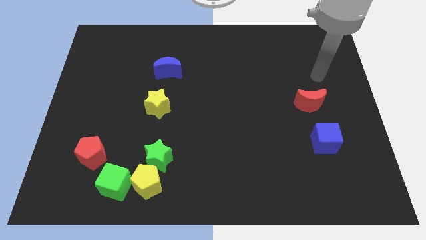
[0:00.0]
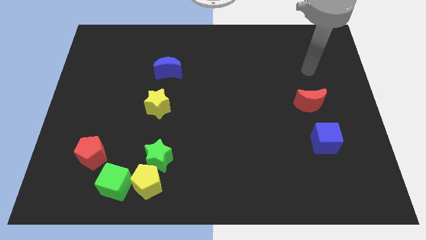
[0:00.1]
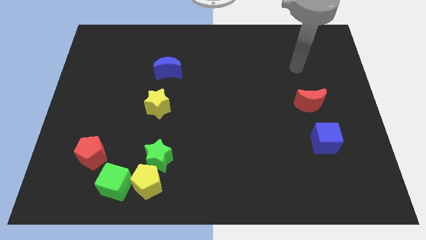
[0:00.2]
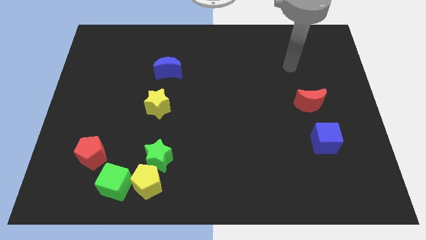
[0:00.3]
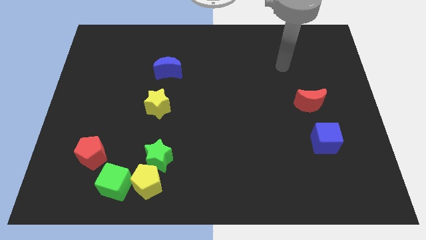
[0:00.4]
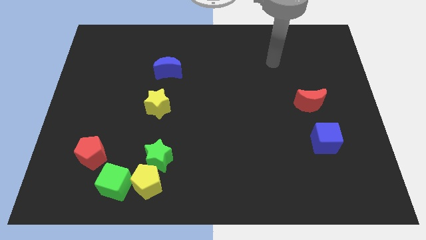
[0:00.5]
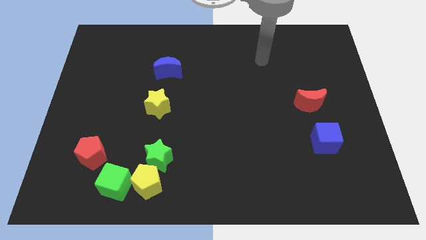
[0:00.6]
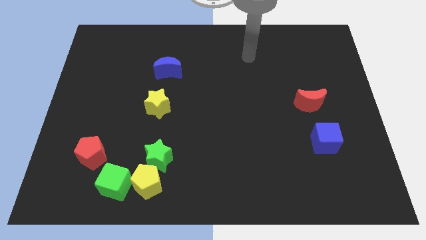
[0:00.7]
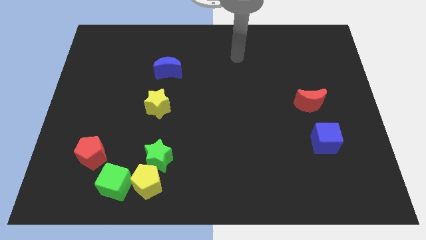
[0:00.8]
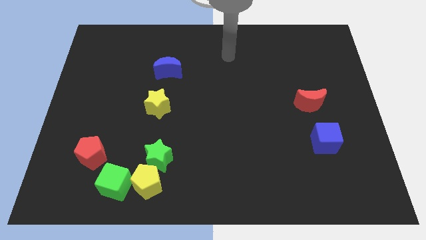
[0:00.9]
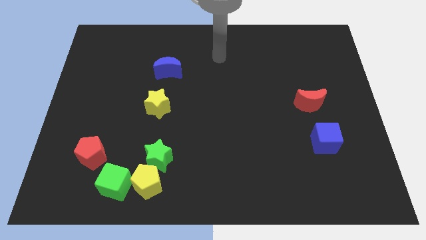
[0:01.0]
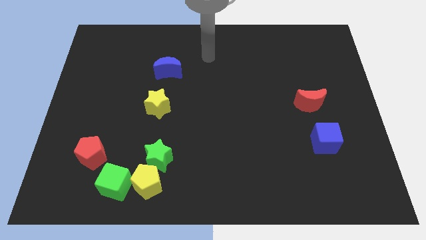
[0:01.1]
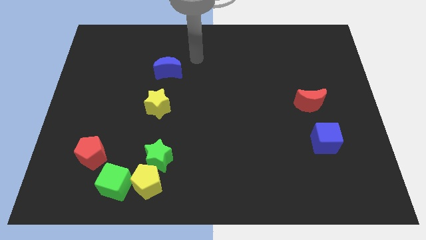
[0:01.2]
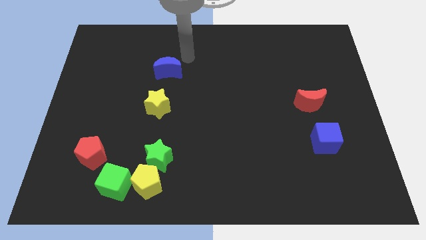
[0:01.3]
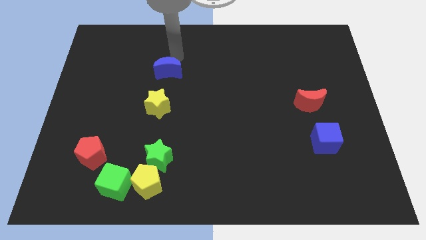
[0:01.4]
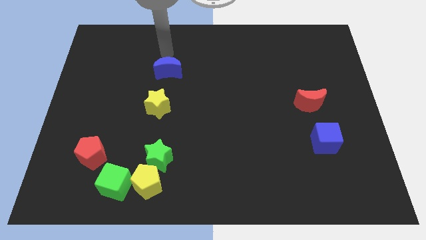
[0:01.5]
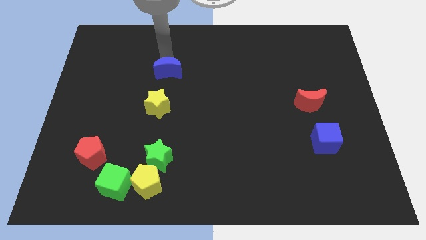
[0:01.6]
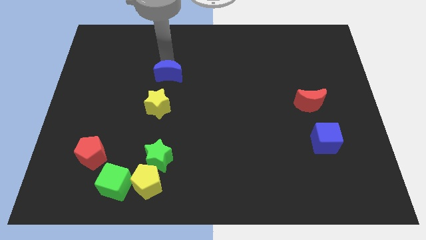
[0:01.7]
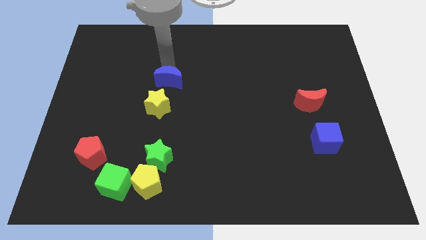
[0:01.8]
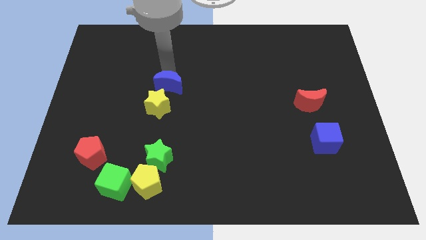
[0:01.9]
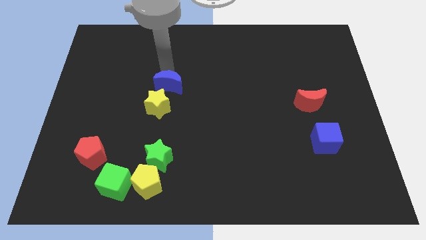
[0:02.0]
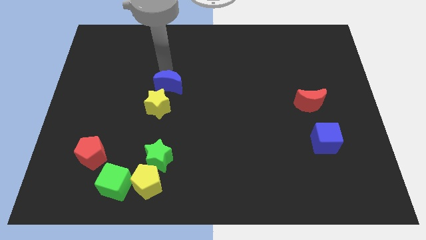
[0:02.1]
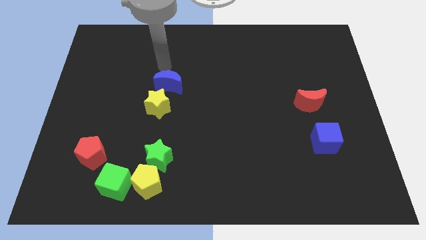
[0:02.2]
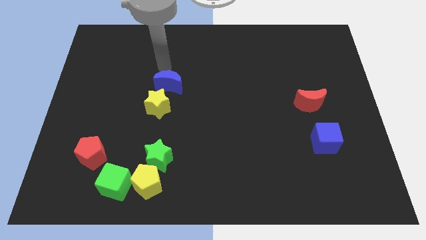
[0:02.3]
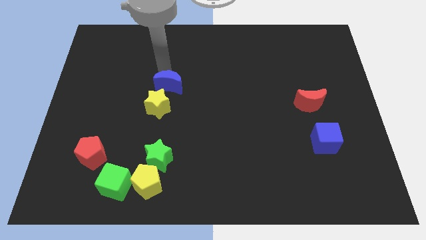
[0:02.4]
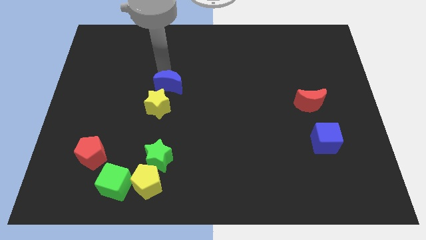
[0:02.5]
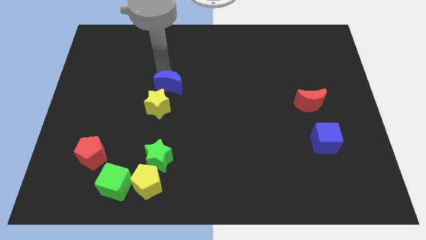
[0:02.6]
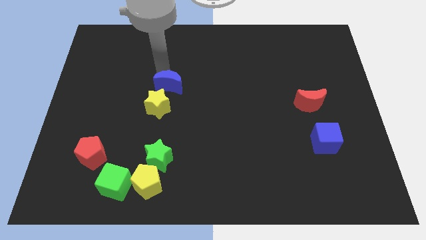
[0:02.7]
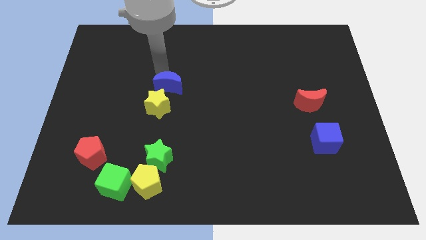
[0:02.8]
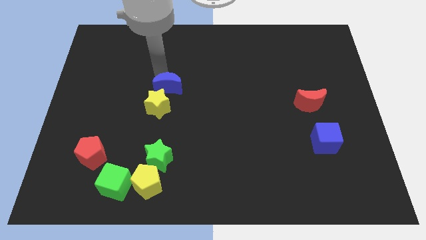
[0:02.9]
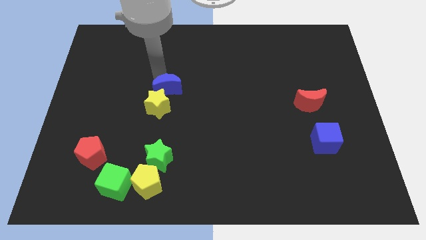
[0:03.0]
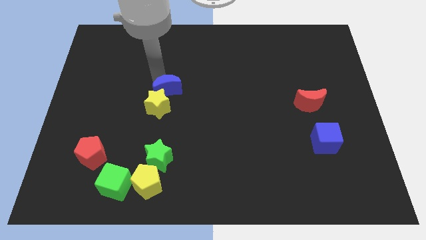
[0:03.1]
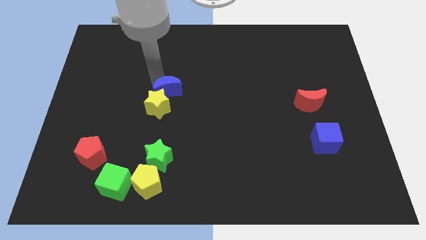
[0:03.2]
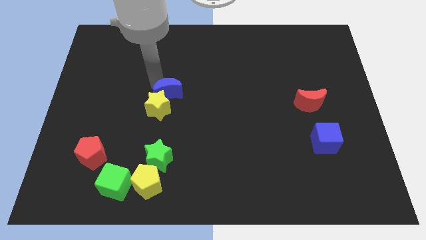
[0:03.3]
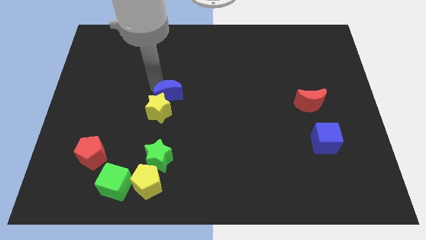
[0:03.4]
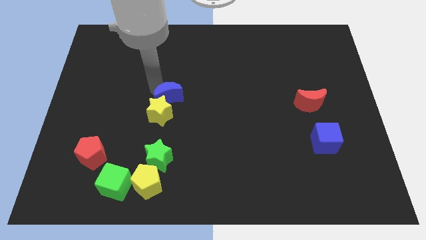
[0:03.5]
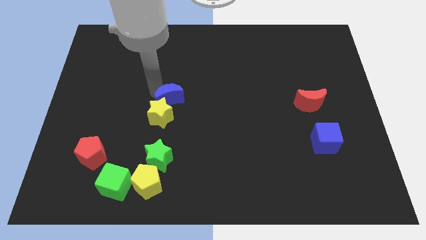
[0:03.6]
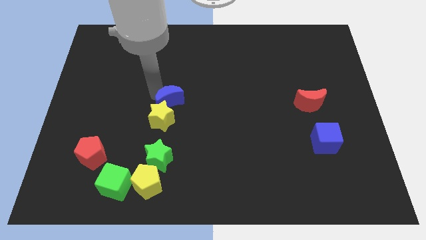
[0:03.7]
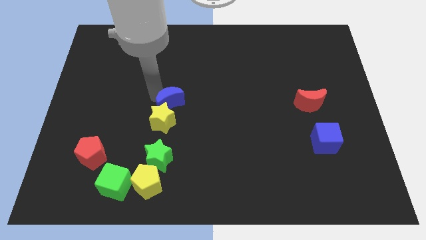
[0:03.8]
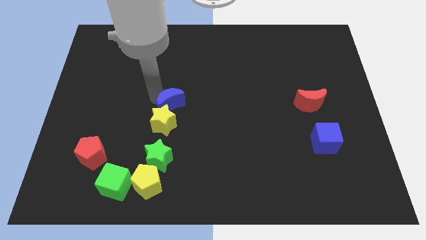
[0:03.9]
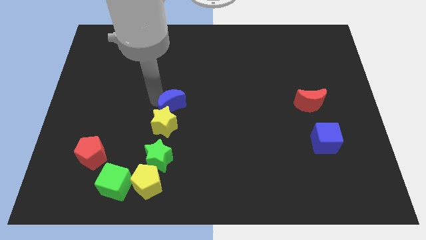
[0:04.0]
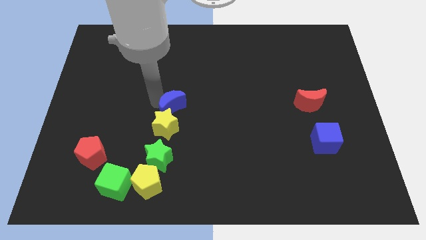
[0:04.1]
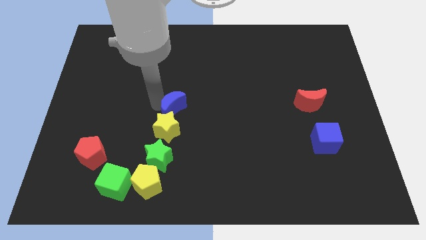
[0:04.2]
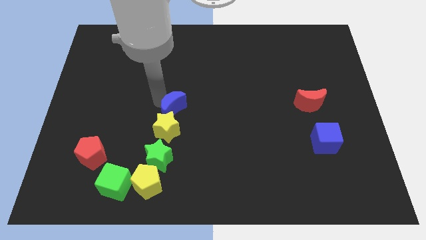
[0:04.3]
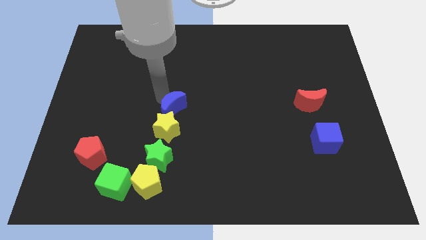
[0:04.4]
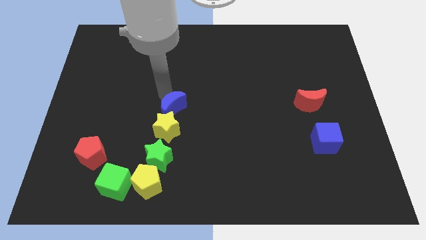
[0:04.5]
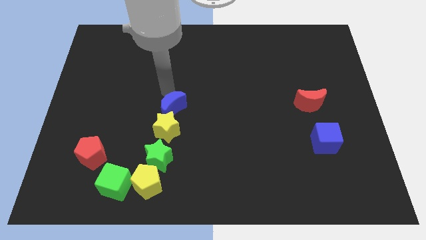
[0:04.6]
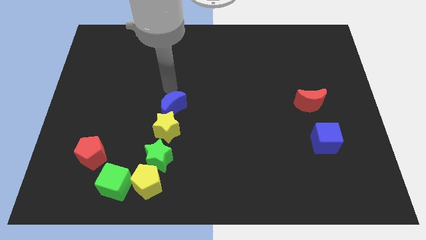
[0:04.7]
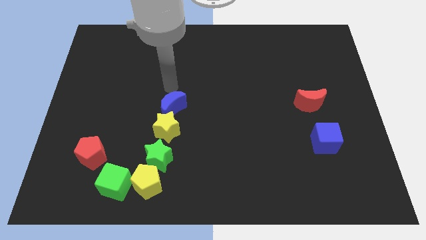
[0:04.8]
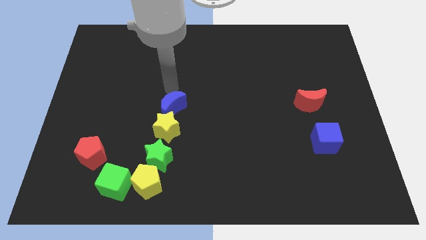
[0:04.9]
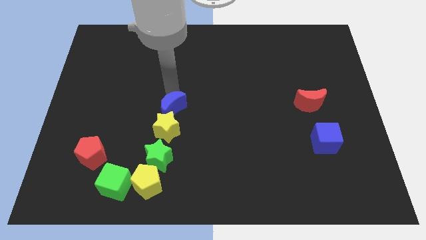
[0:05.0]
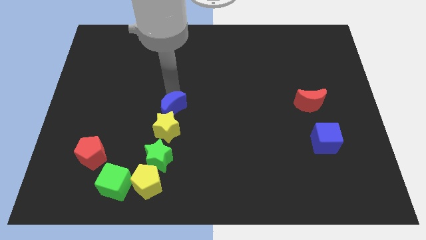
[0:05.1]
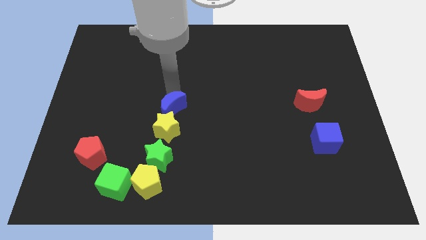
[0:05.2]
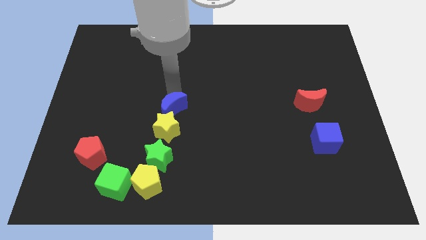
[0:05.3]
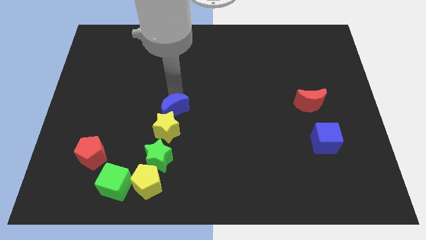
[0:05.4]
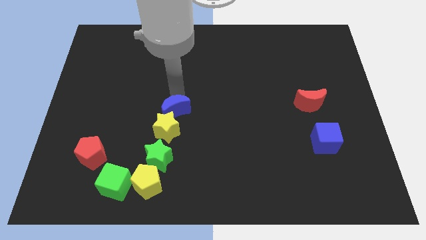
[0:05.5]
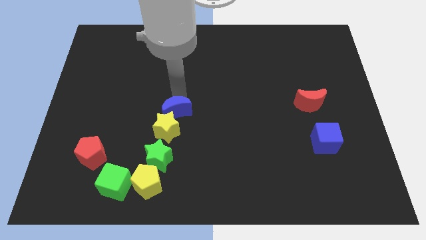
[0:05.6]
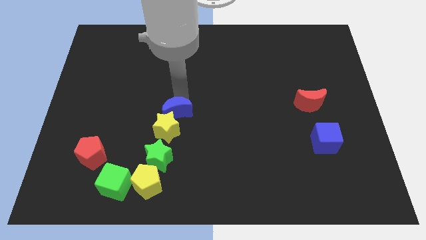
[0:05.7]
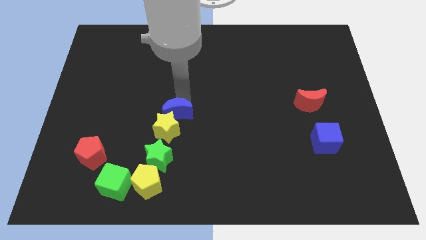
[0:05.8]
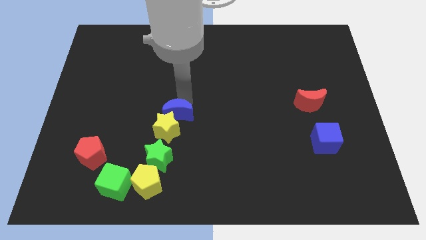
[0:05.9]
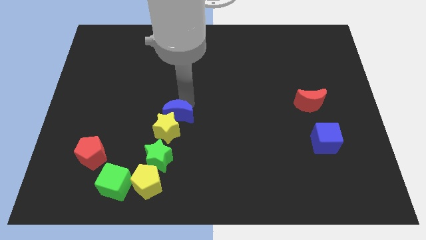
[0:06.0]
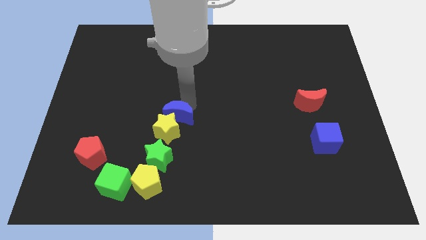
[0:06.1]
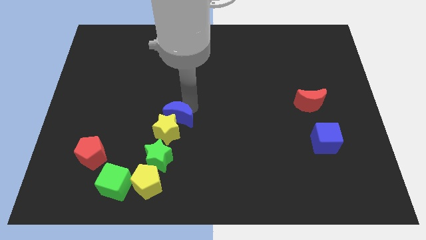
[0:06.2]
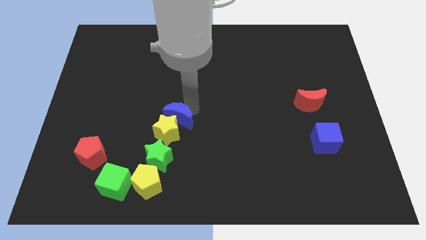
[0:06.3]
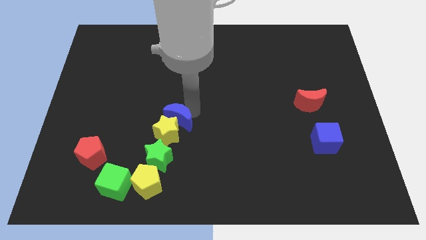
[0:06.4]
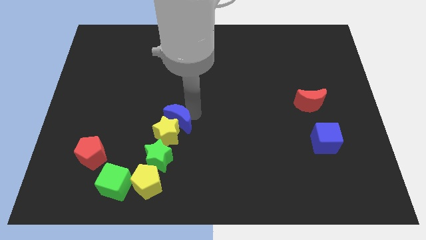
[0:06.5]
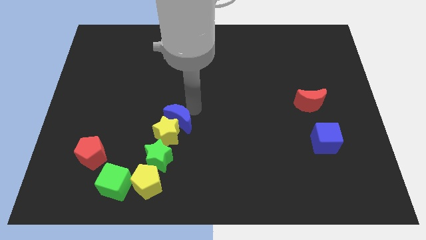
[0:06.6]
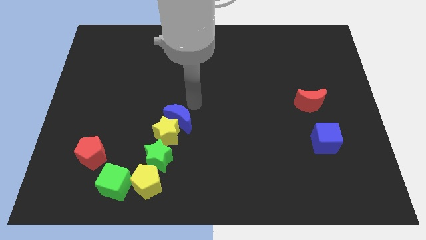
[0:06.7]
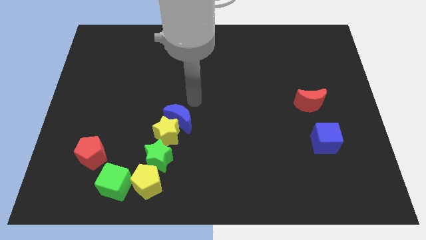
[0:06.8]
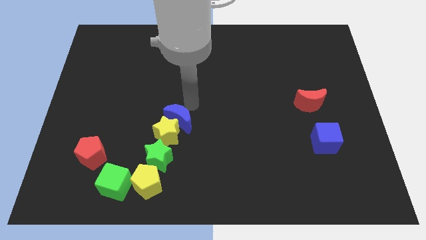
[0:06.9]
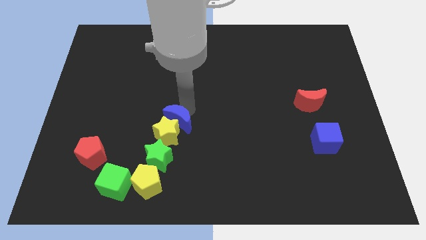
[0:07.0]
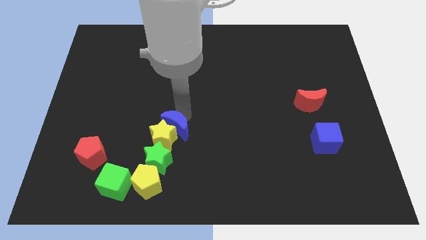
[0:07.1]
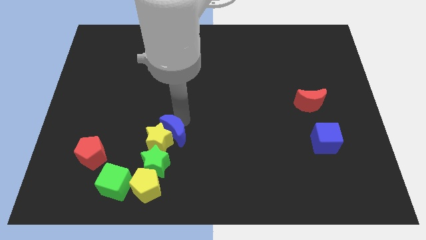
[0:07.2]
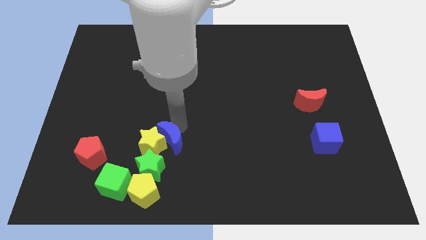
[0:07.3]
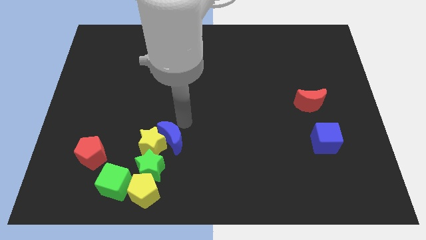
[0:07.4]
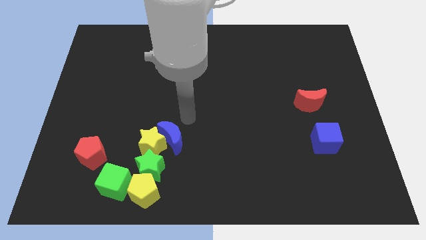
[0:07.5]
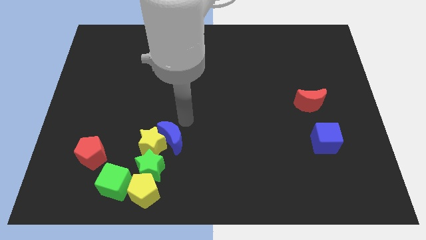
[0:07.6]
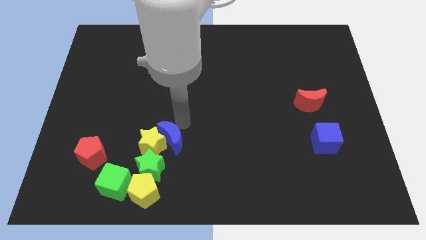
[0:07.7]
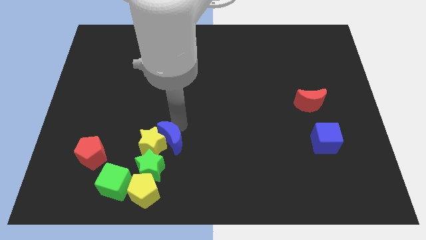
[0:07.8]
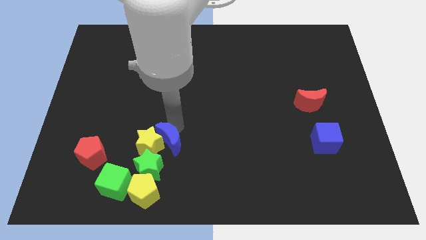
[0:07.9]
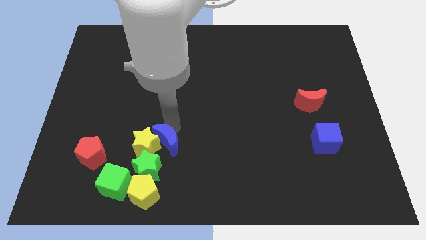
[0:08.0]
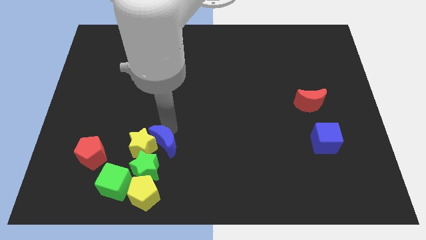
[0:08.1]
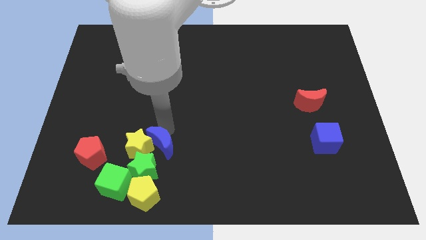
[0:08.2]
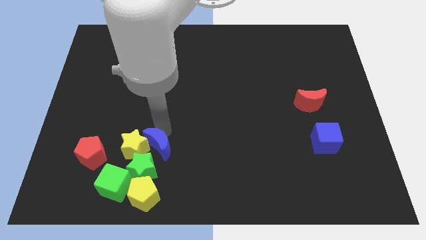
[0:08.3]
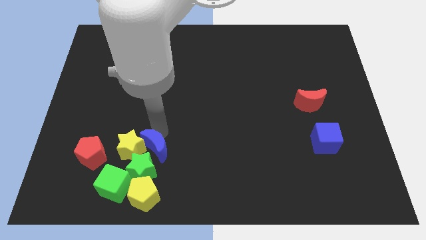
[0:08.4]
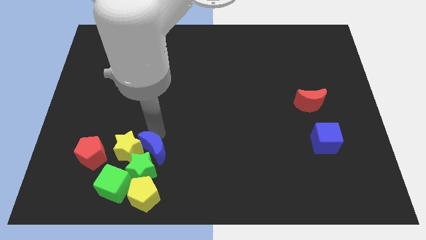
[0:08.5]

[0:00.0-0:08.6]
push the blue moon close to the green star
